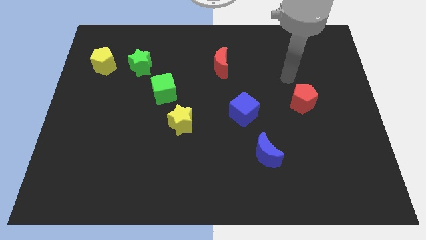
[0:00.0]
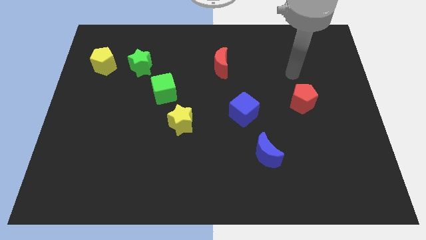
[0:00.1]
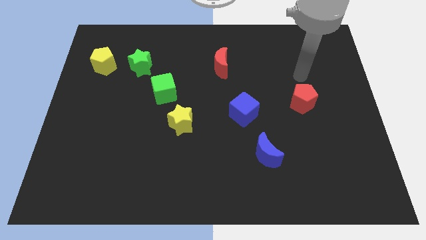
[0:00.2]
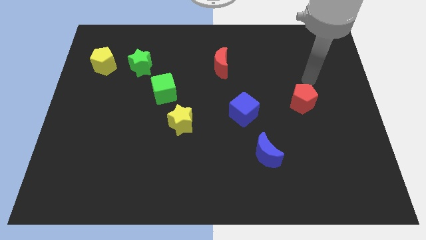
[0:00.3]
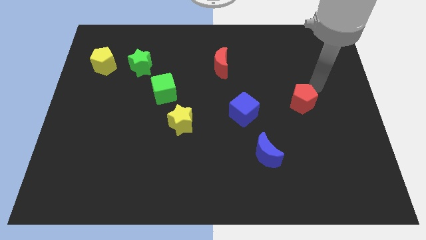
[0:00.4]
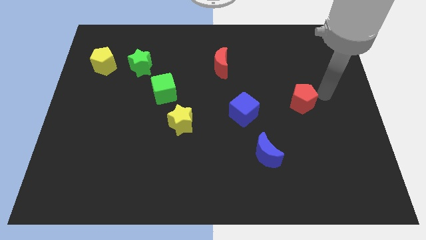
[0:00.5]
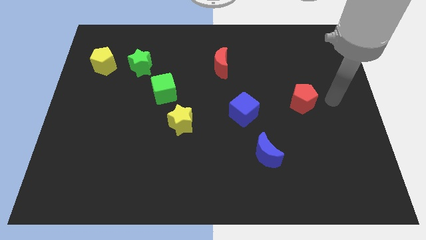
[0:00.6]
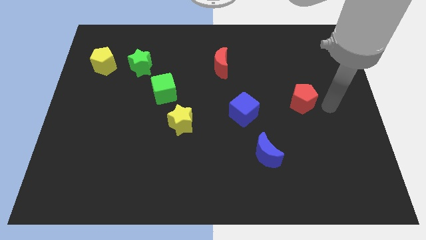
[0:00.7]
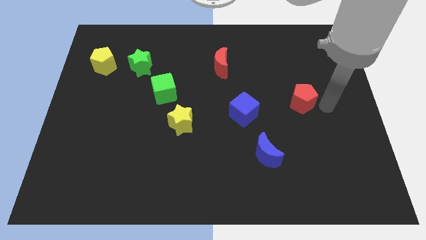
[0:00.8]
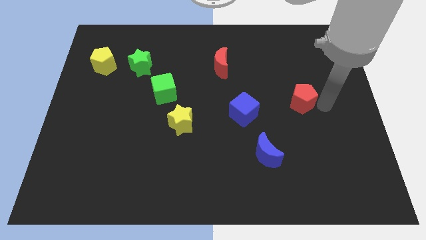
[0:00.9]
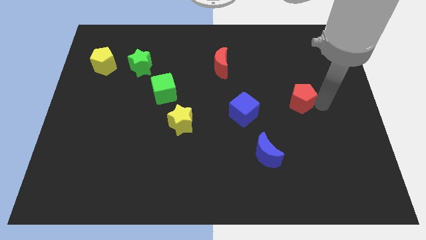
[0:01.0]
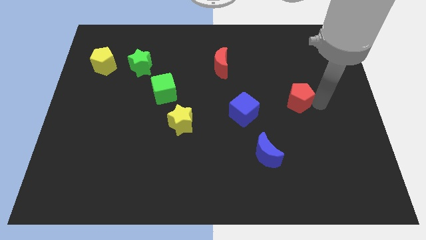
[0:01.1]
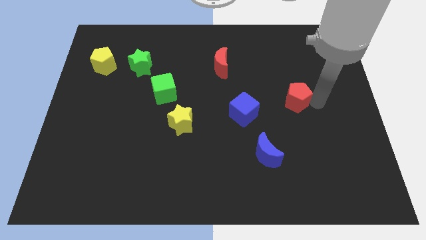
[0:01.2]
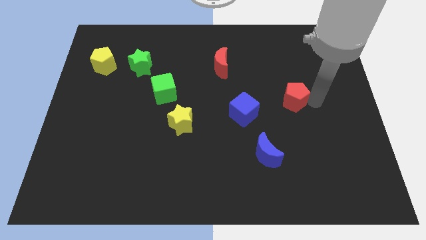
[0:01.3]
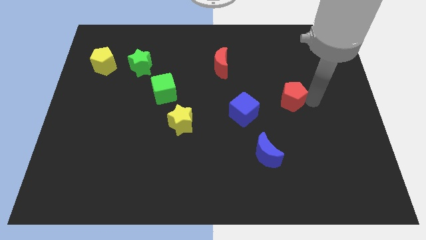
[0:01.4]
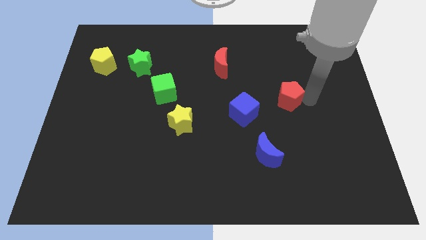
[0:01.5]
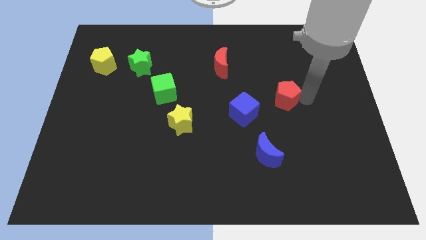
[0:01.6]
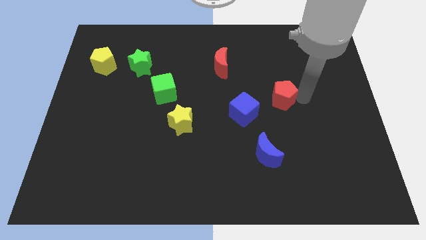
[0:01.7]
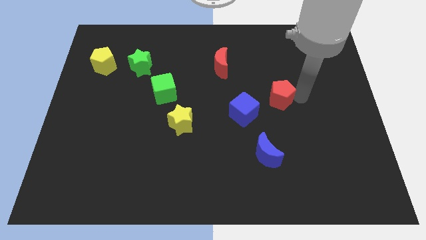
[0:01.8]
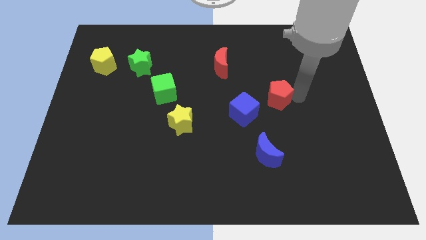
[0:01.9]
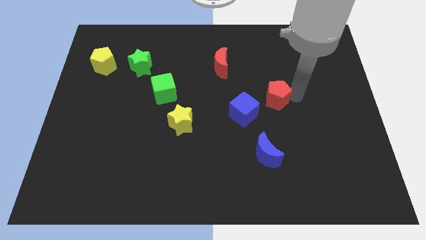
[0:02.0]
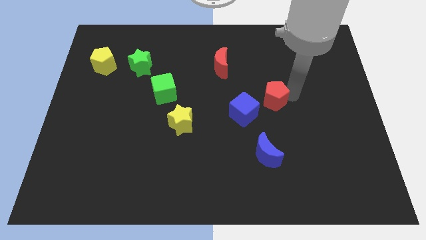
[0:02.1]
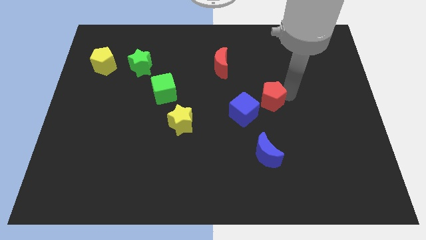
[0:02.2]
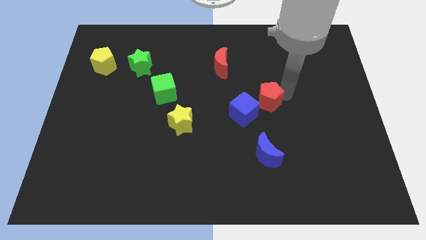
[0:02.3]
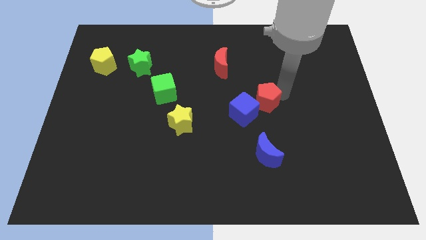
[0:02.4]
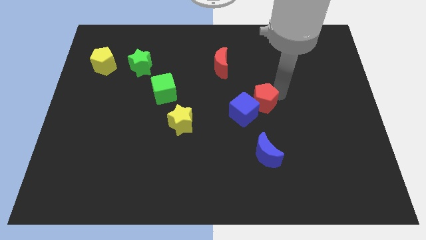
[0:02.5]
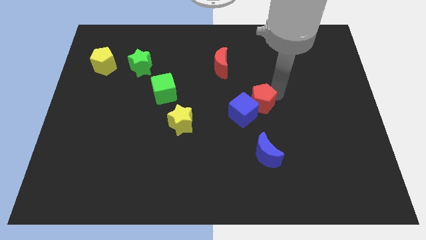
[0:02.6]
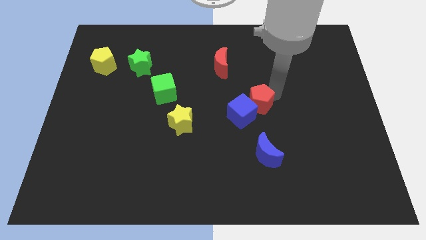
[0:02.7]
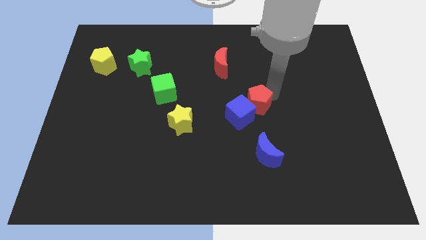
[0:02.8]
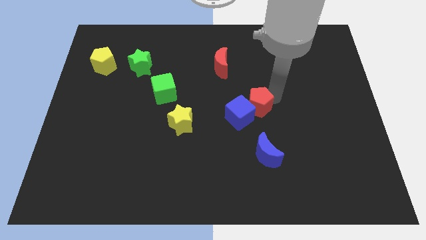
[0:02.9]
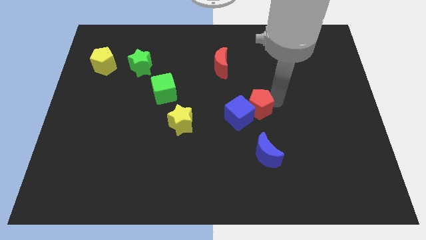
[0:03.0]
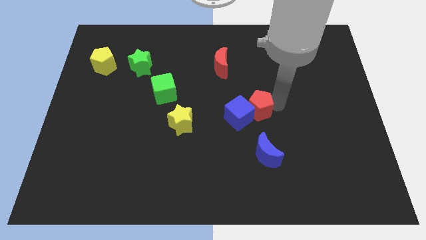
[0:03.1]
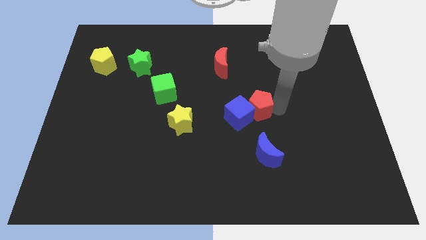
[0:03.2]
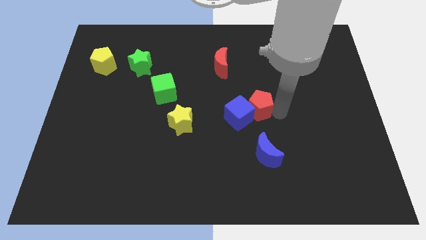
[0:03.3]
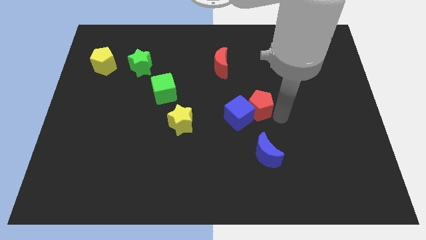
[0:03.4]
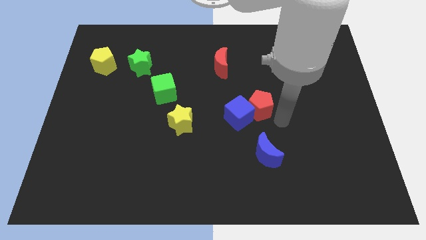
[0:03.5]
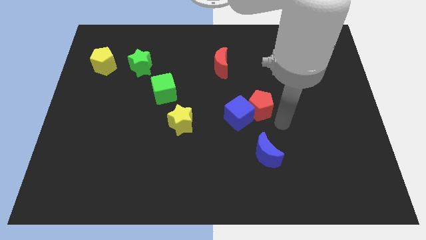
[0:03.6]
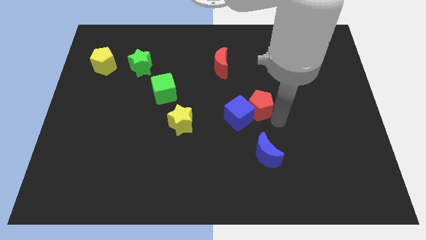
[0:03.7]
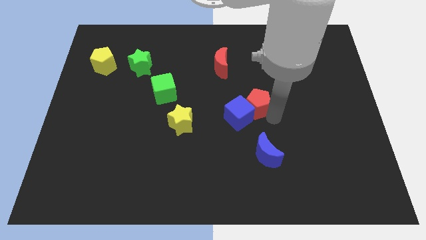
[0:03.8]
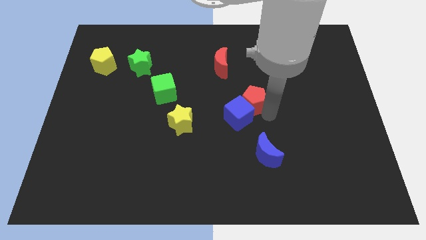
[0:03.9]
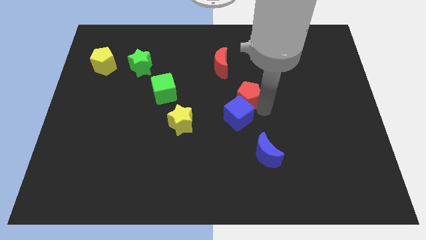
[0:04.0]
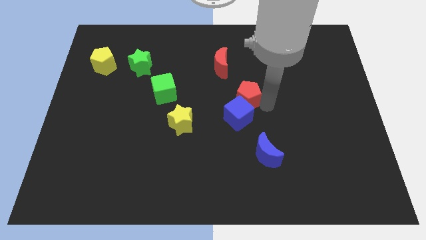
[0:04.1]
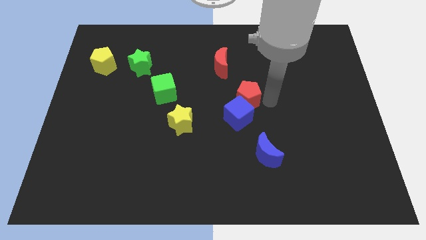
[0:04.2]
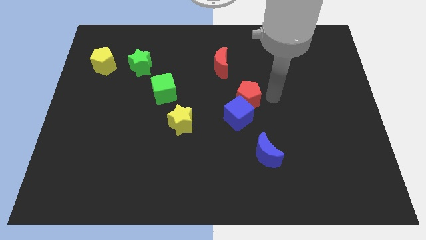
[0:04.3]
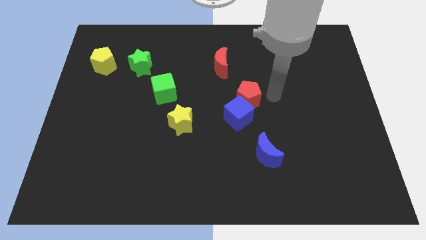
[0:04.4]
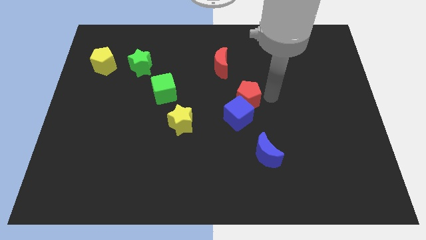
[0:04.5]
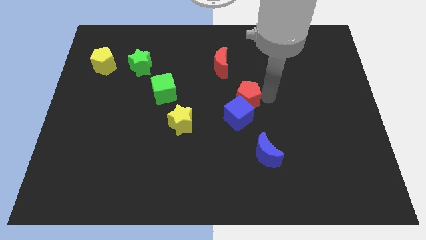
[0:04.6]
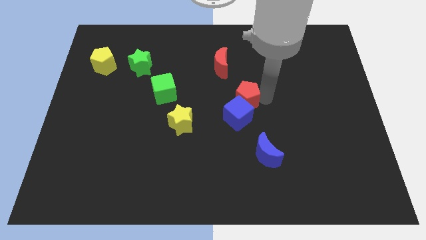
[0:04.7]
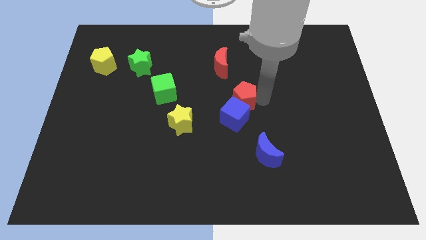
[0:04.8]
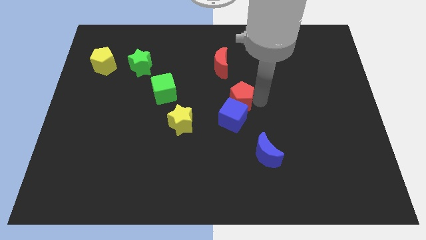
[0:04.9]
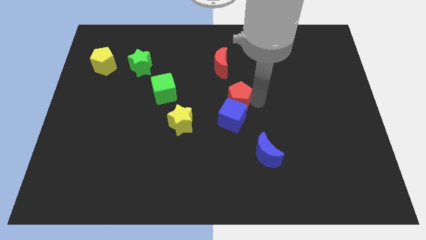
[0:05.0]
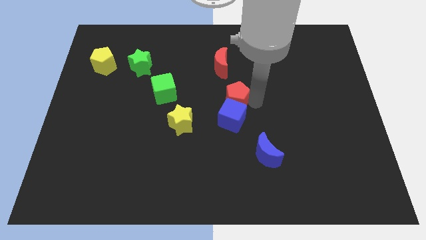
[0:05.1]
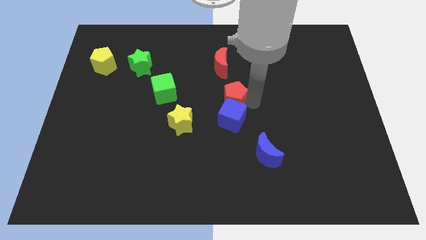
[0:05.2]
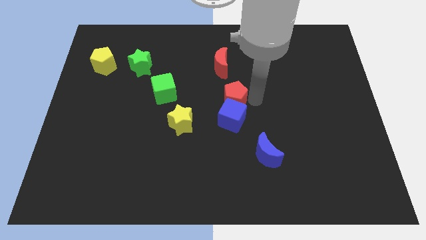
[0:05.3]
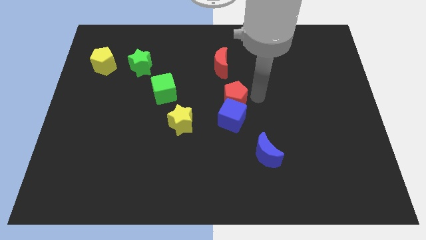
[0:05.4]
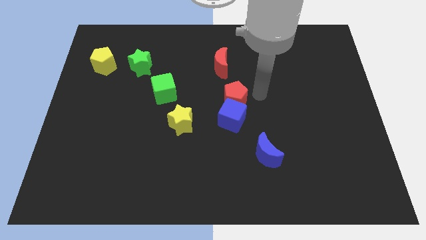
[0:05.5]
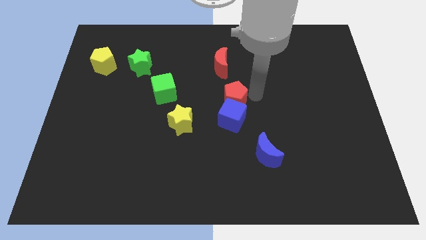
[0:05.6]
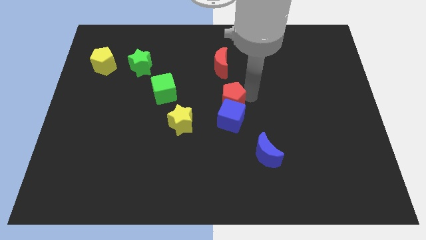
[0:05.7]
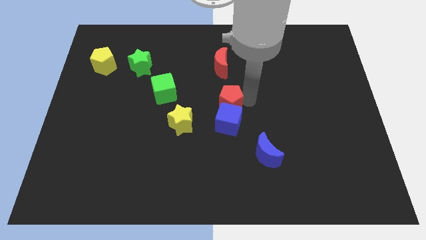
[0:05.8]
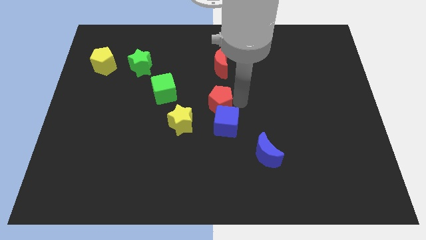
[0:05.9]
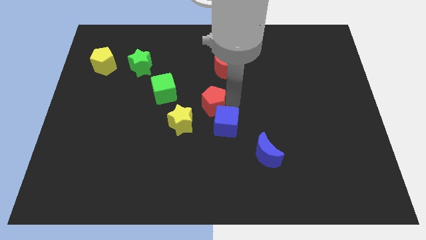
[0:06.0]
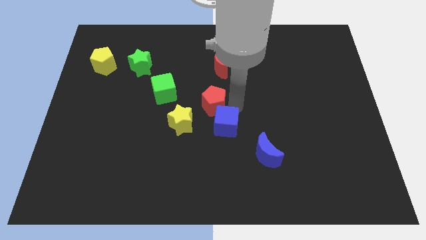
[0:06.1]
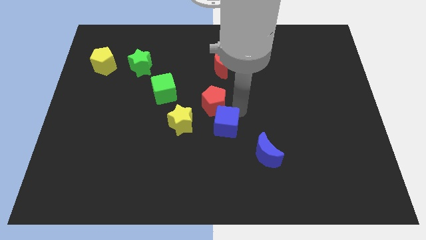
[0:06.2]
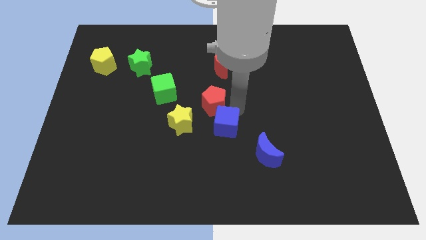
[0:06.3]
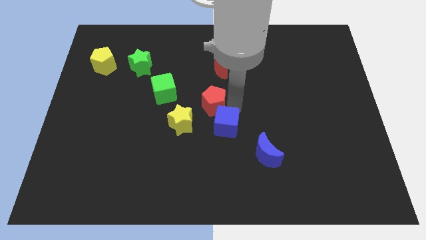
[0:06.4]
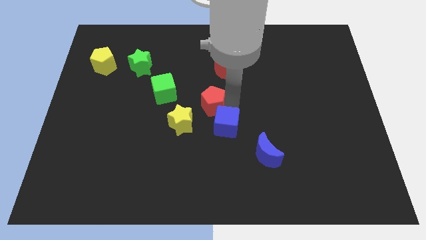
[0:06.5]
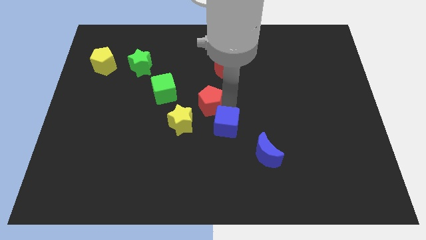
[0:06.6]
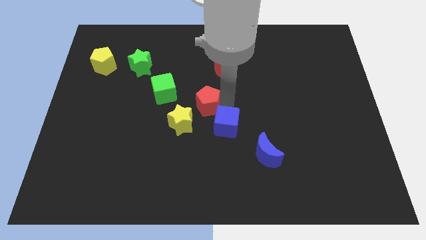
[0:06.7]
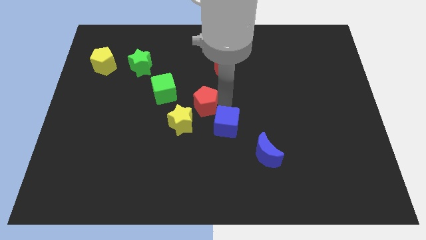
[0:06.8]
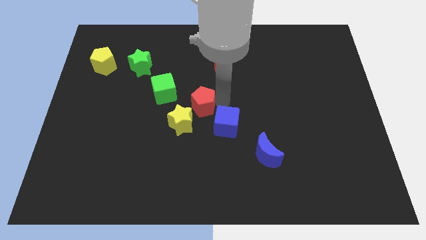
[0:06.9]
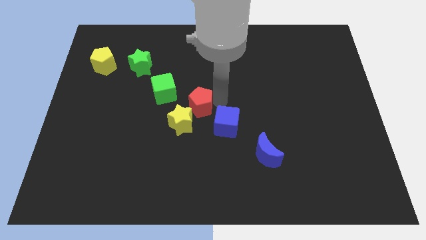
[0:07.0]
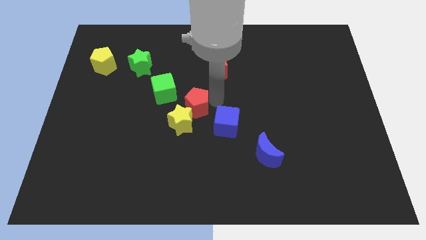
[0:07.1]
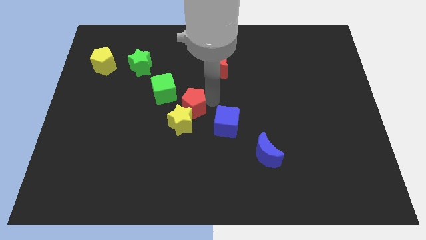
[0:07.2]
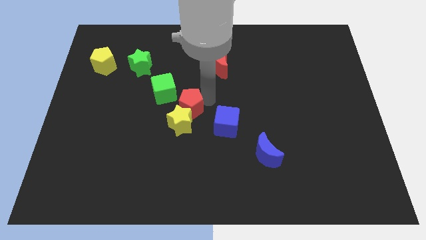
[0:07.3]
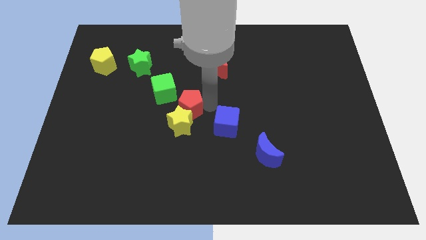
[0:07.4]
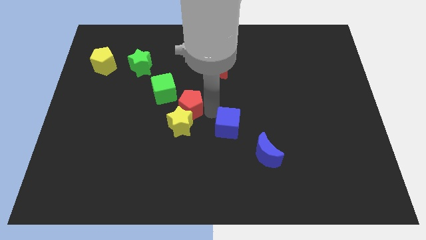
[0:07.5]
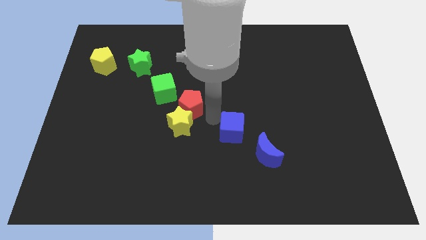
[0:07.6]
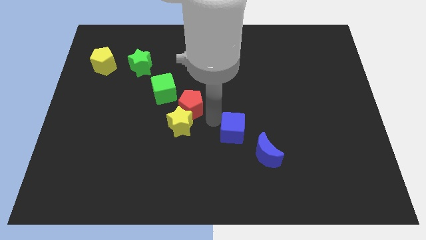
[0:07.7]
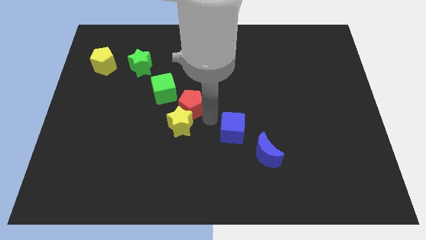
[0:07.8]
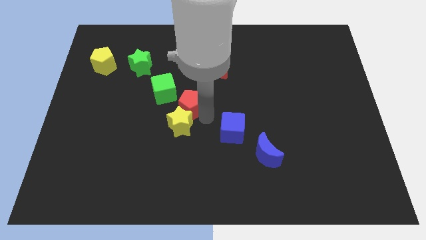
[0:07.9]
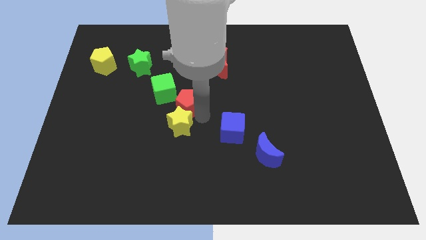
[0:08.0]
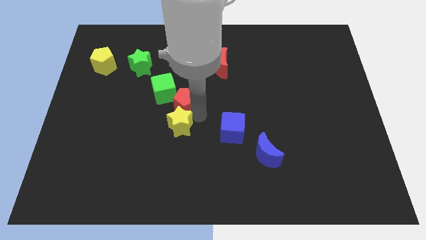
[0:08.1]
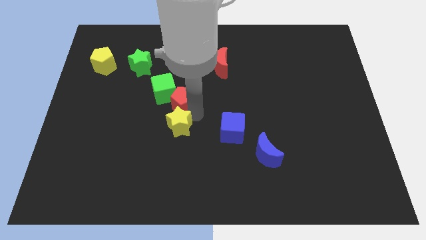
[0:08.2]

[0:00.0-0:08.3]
push the red pentagon towards the green cube
